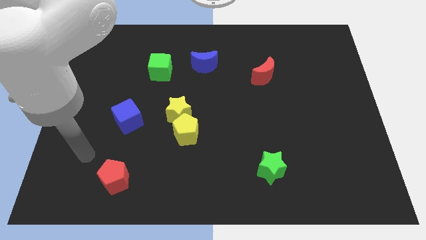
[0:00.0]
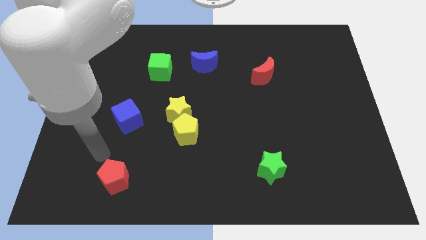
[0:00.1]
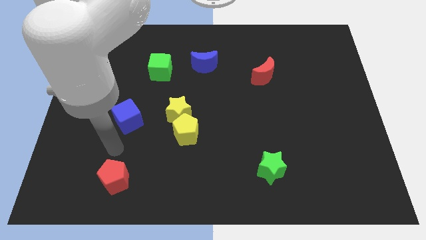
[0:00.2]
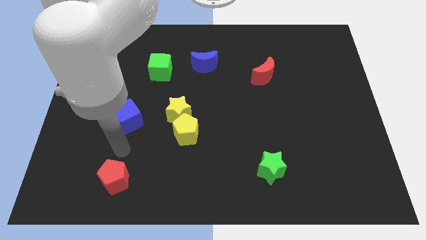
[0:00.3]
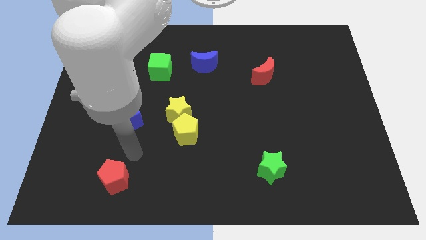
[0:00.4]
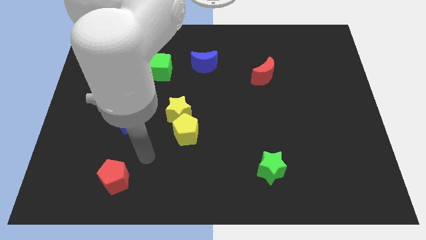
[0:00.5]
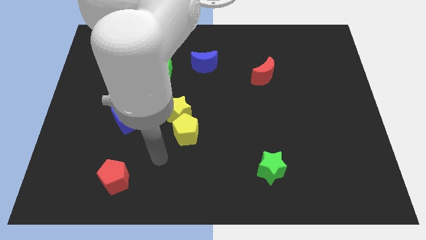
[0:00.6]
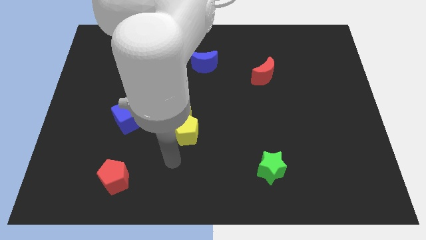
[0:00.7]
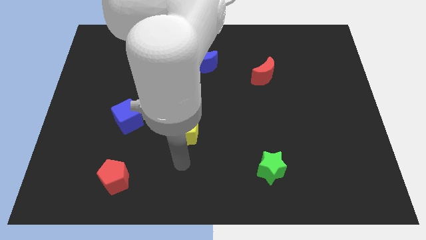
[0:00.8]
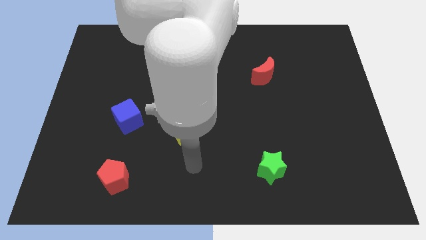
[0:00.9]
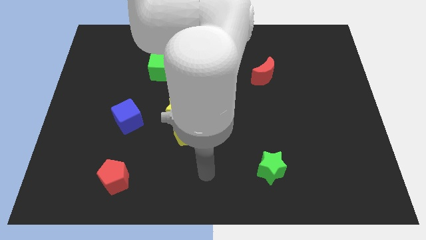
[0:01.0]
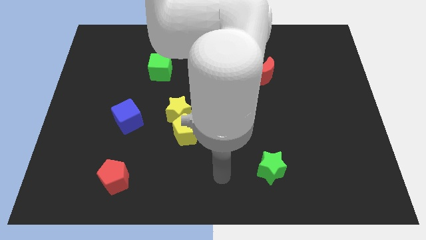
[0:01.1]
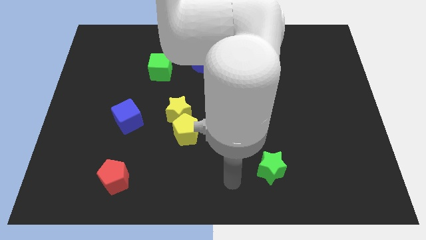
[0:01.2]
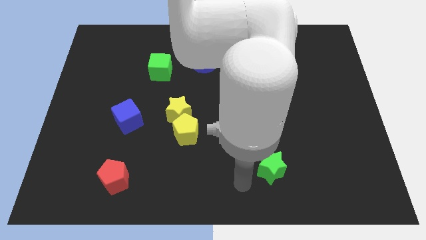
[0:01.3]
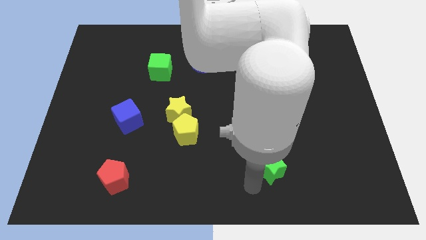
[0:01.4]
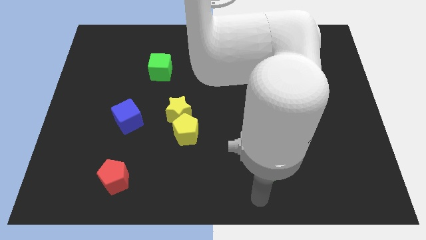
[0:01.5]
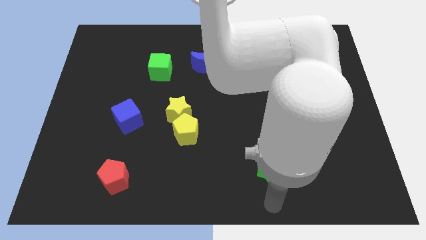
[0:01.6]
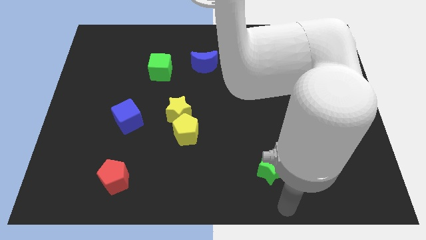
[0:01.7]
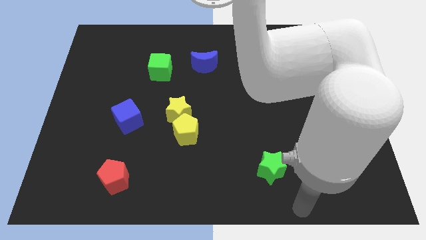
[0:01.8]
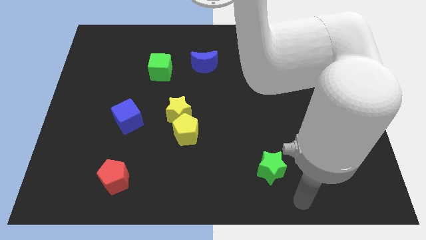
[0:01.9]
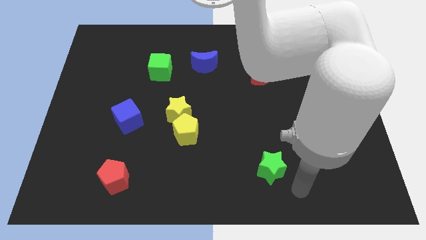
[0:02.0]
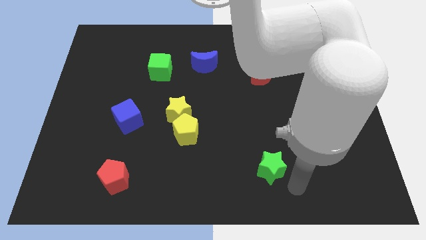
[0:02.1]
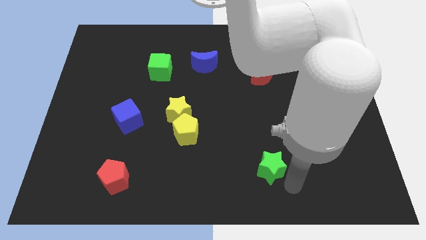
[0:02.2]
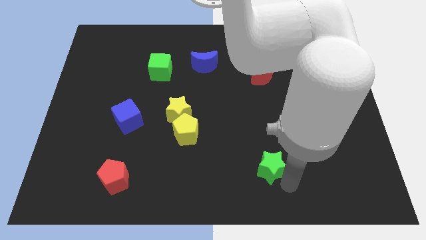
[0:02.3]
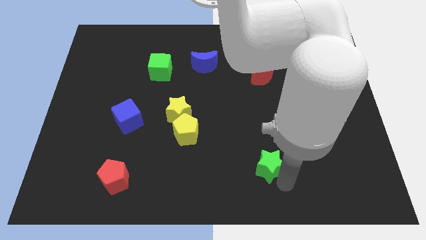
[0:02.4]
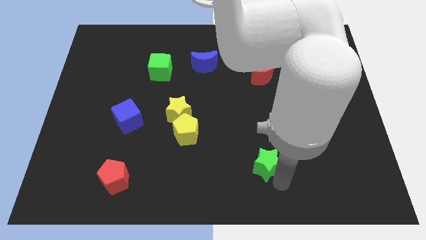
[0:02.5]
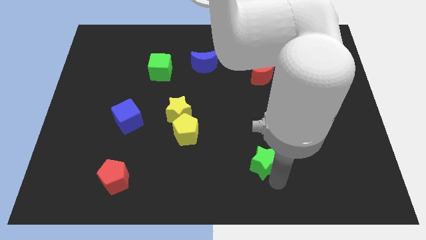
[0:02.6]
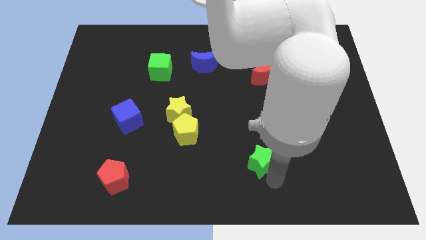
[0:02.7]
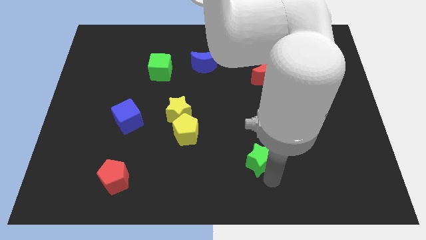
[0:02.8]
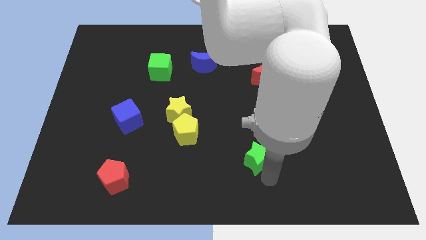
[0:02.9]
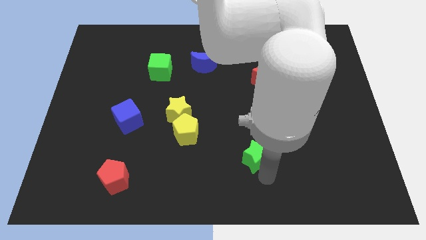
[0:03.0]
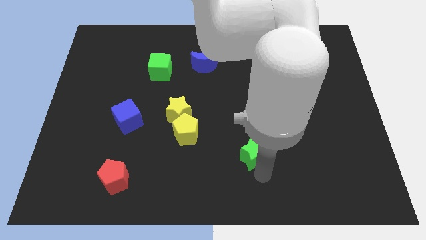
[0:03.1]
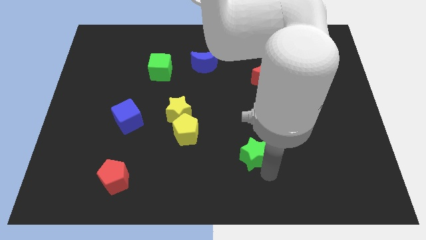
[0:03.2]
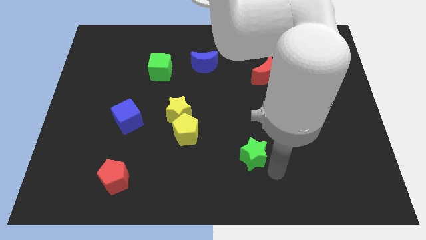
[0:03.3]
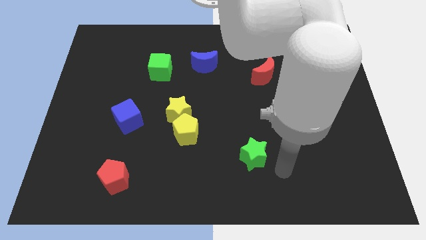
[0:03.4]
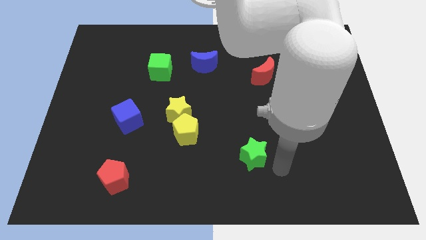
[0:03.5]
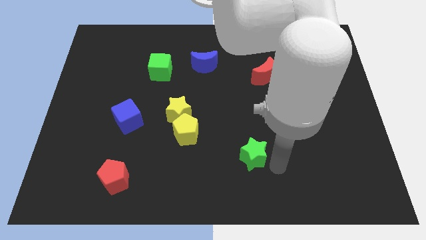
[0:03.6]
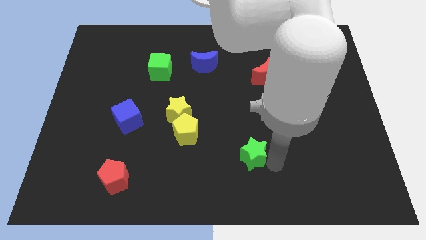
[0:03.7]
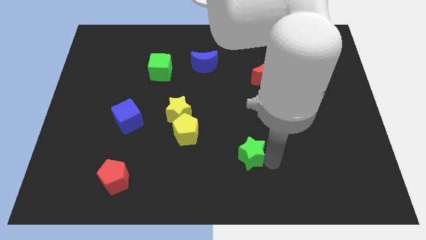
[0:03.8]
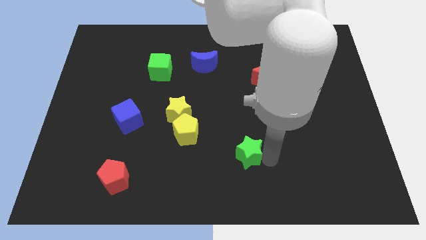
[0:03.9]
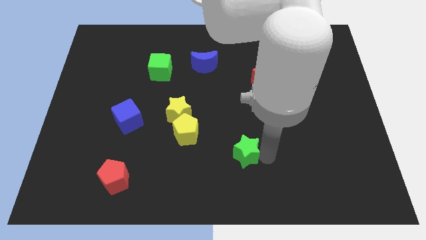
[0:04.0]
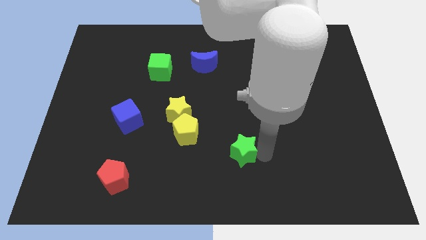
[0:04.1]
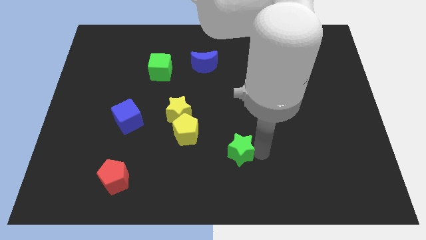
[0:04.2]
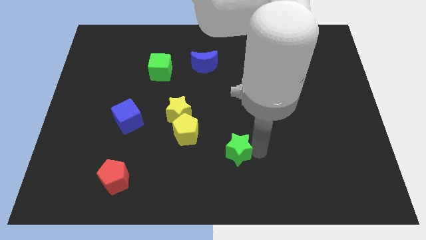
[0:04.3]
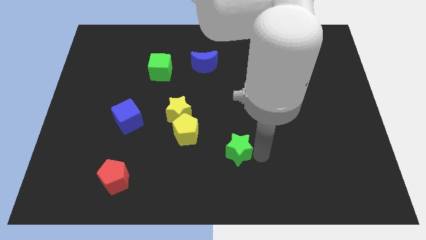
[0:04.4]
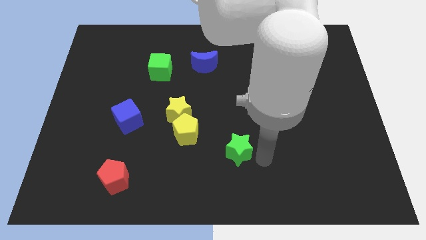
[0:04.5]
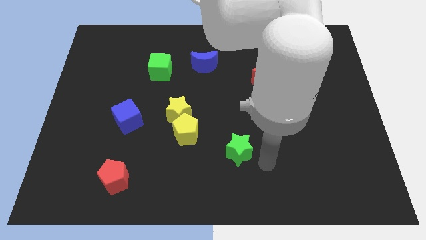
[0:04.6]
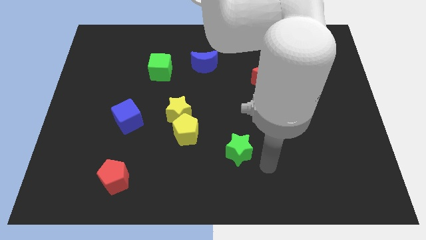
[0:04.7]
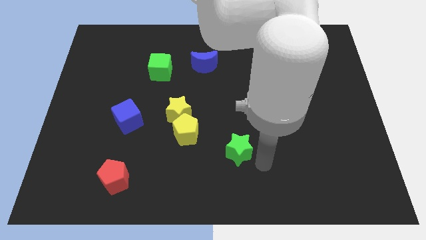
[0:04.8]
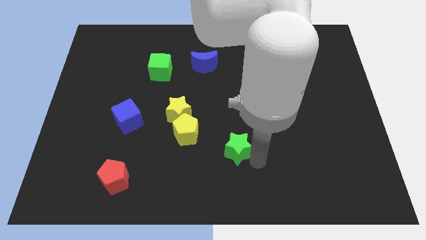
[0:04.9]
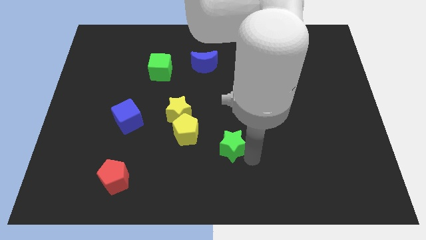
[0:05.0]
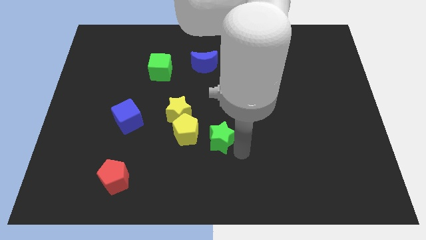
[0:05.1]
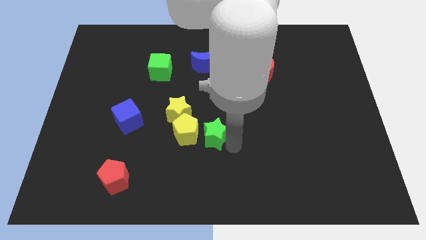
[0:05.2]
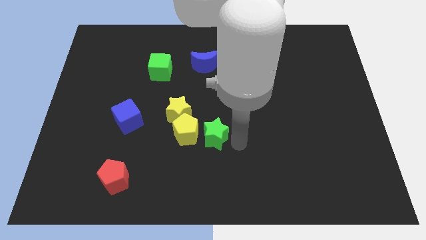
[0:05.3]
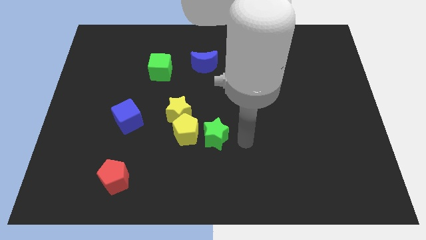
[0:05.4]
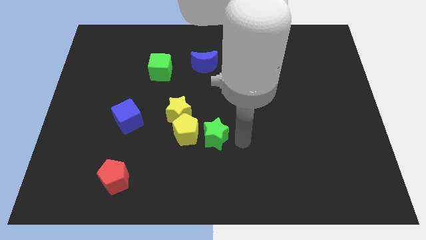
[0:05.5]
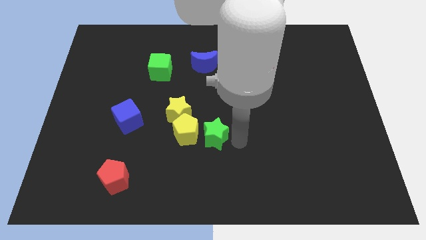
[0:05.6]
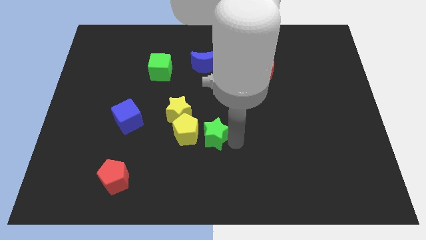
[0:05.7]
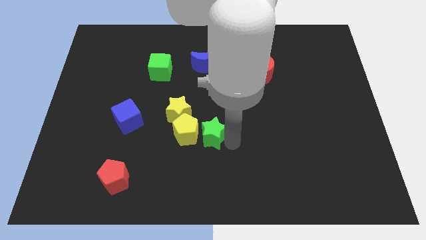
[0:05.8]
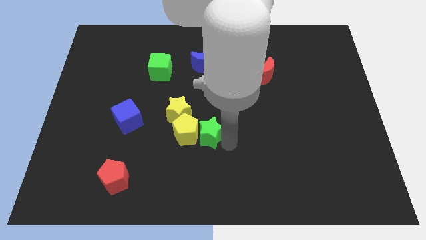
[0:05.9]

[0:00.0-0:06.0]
put the green star to the yellow pentagon

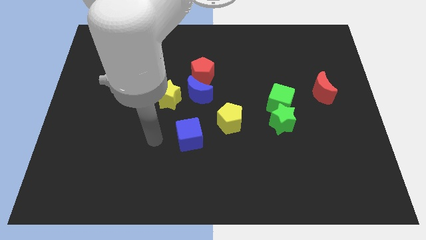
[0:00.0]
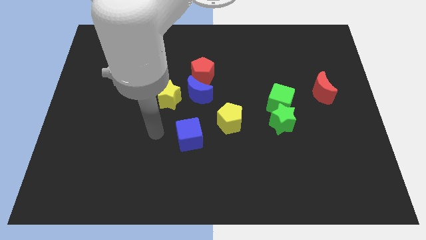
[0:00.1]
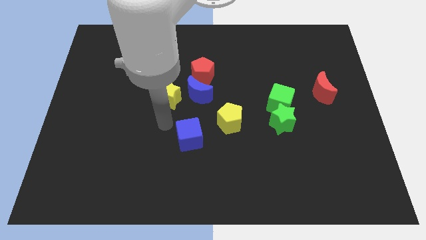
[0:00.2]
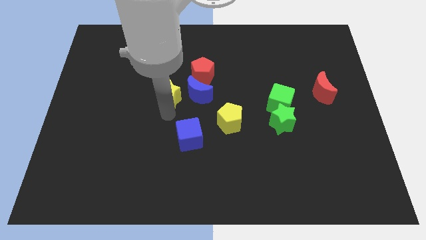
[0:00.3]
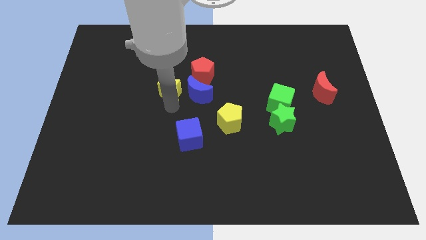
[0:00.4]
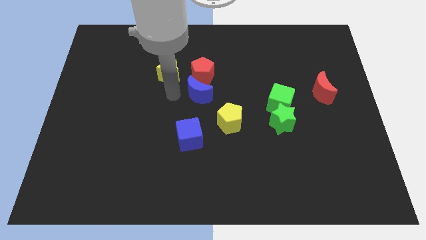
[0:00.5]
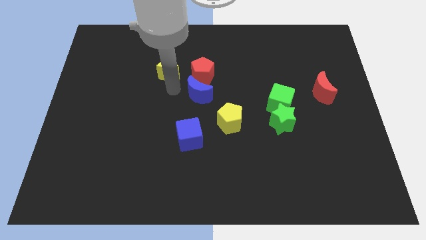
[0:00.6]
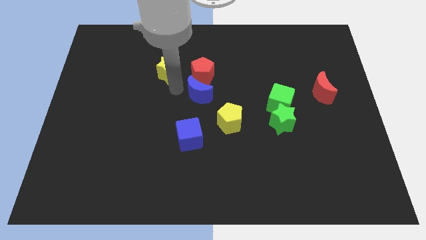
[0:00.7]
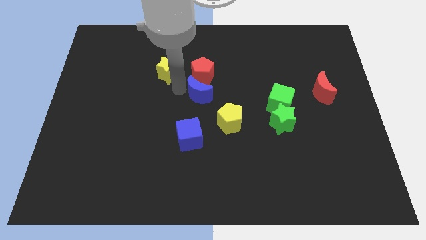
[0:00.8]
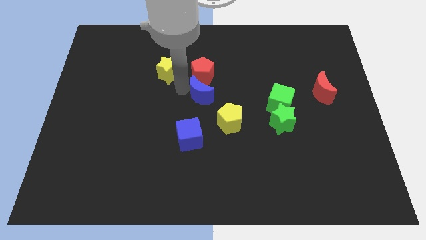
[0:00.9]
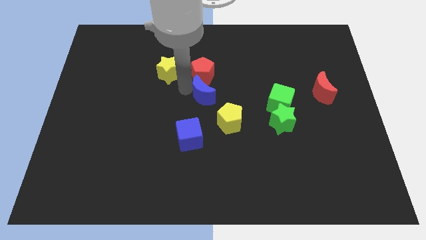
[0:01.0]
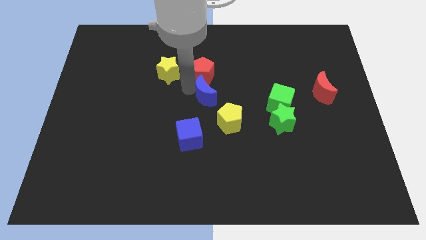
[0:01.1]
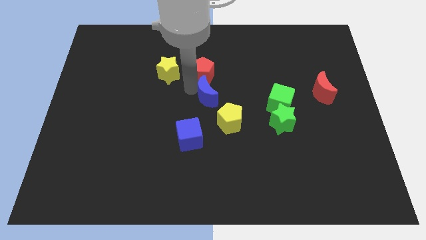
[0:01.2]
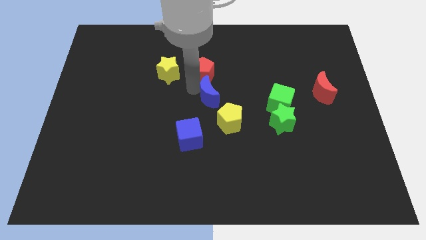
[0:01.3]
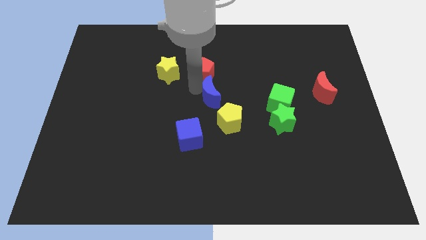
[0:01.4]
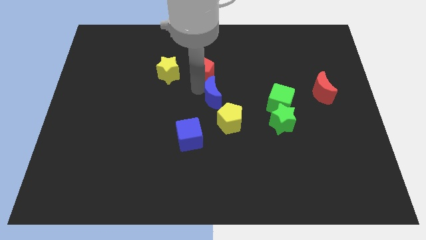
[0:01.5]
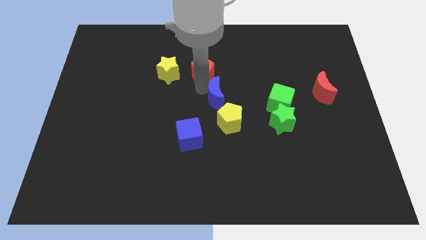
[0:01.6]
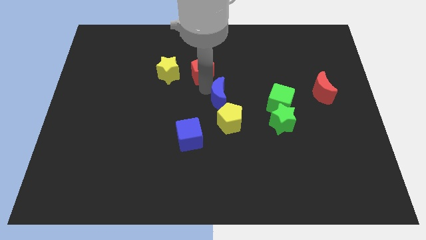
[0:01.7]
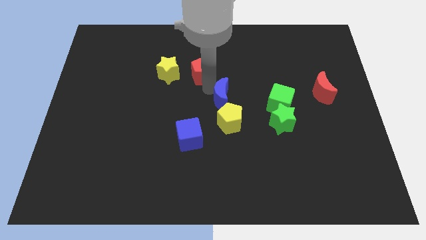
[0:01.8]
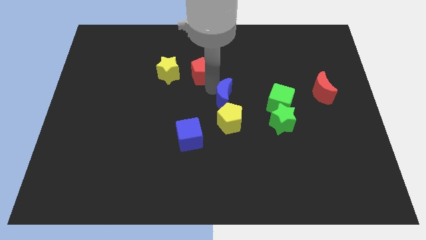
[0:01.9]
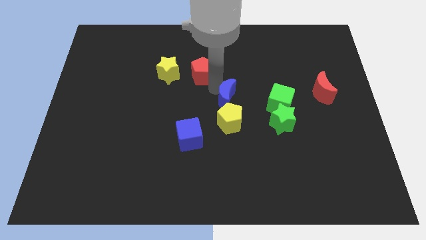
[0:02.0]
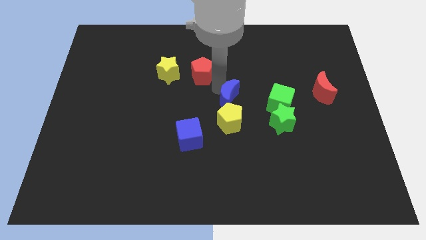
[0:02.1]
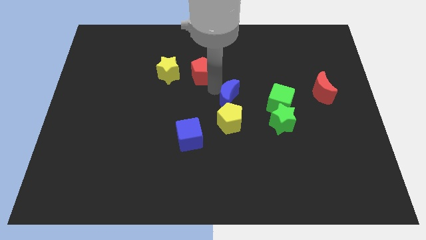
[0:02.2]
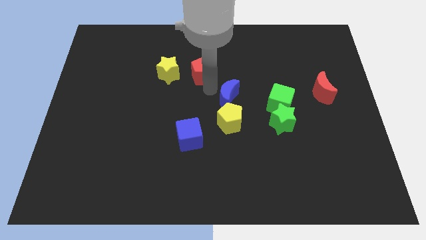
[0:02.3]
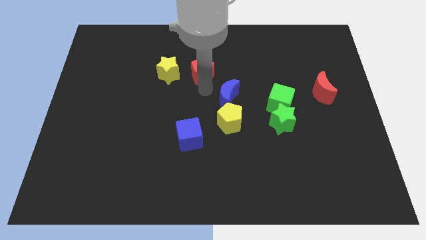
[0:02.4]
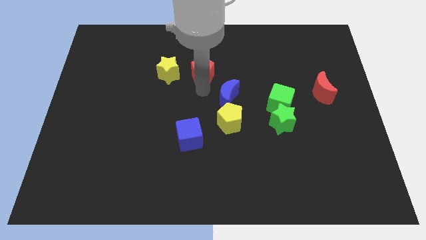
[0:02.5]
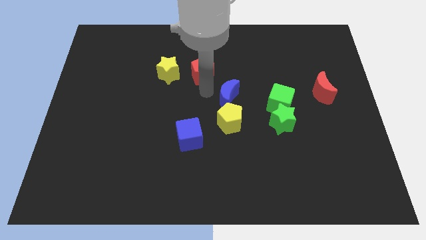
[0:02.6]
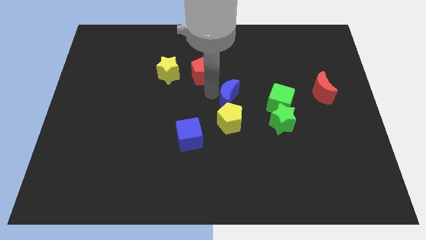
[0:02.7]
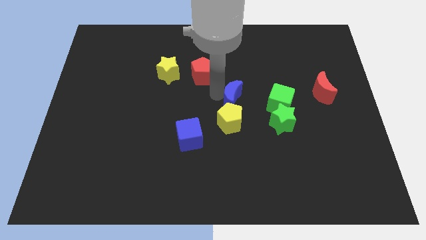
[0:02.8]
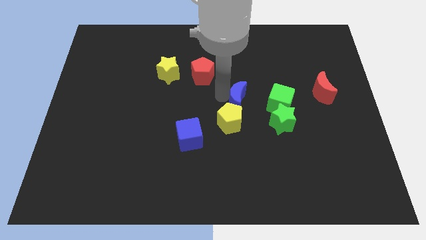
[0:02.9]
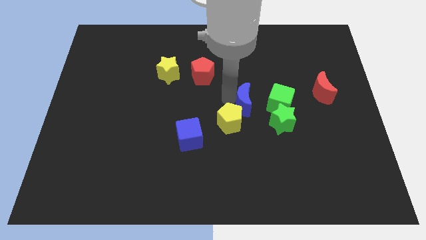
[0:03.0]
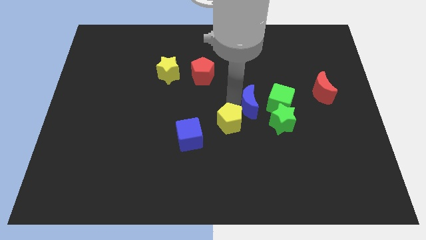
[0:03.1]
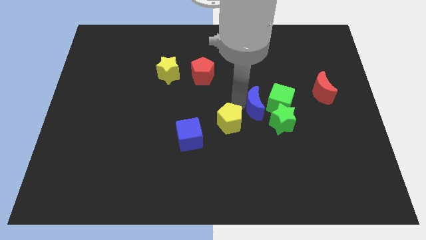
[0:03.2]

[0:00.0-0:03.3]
slide the blue moon next to the green cube
